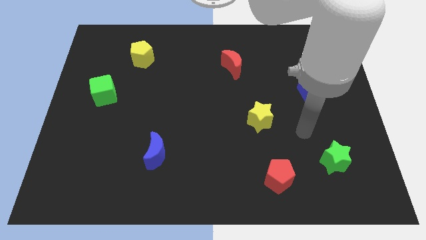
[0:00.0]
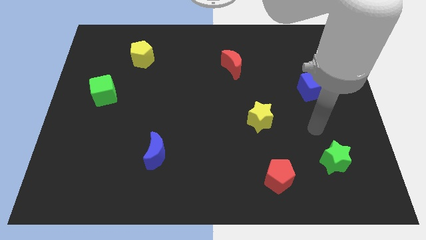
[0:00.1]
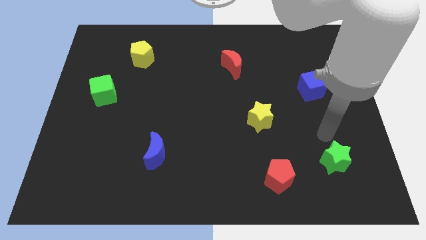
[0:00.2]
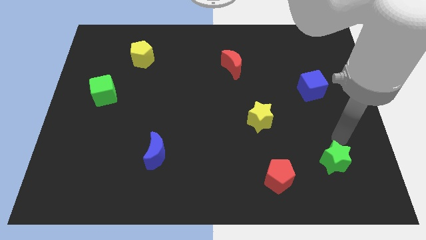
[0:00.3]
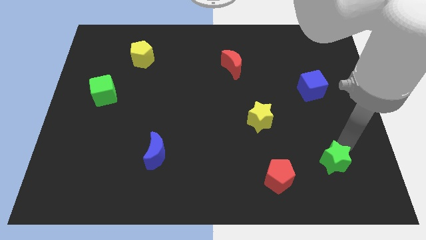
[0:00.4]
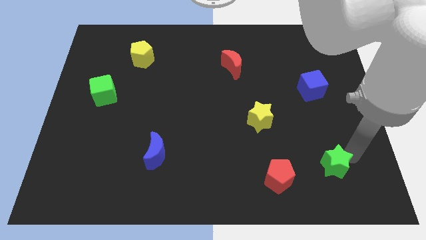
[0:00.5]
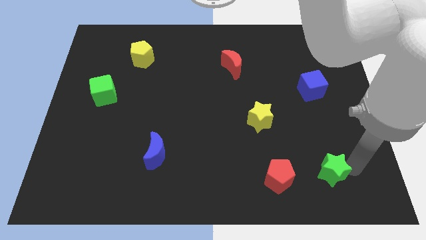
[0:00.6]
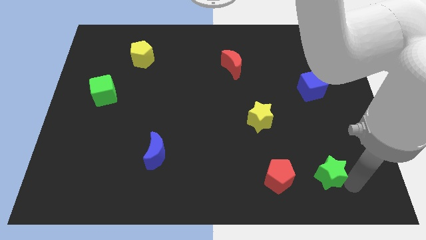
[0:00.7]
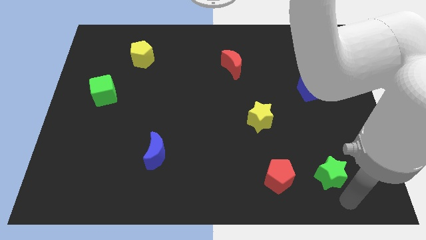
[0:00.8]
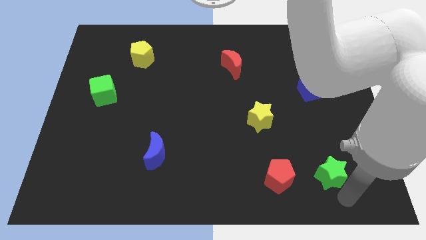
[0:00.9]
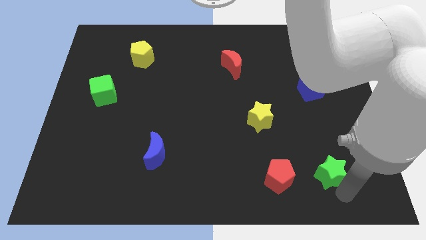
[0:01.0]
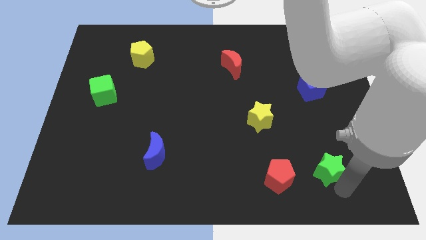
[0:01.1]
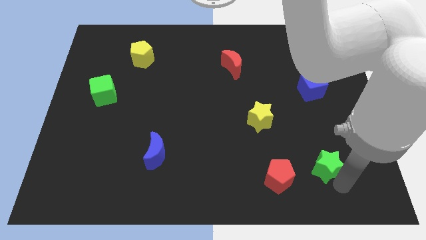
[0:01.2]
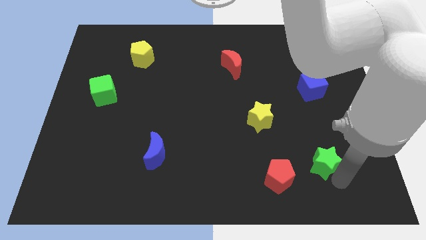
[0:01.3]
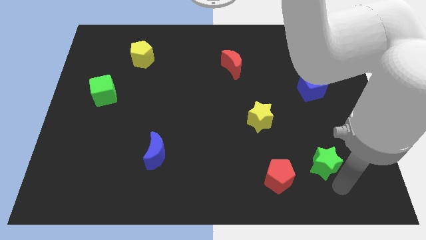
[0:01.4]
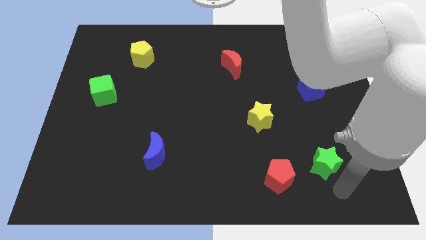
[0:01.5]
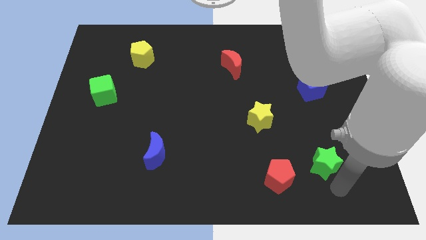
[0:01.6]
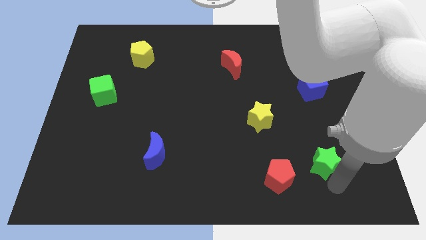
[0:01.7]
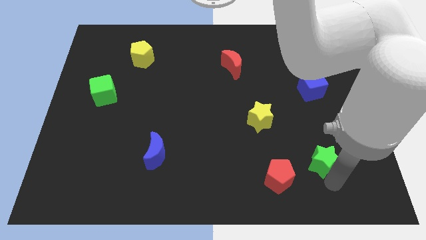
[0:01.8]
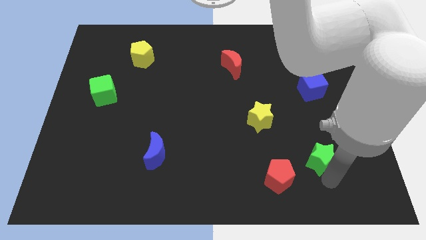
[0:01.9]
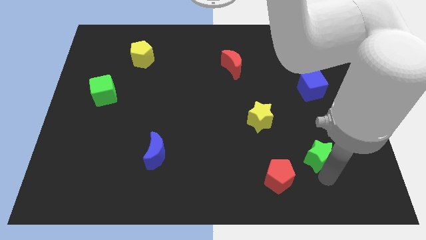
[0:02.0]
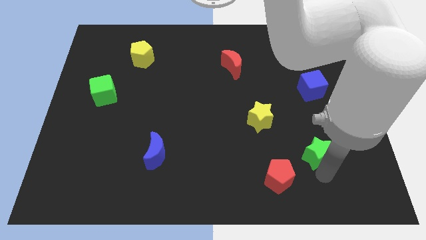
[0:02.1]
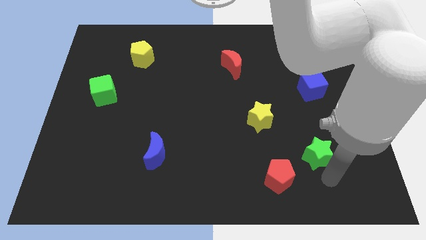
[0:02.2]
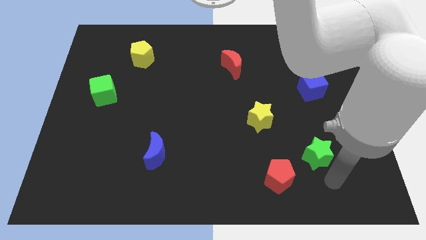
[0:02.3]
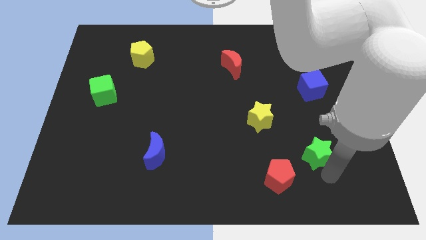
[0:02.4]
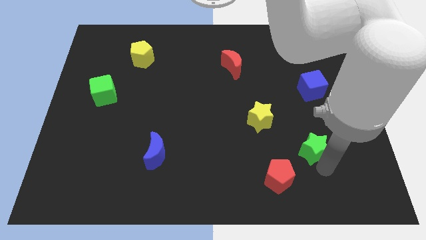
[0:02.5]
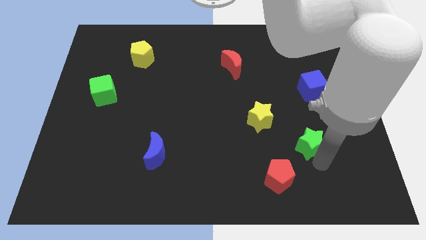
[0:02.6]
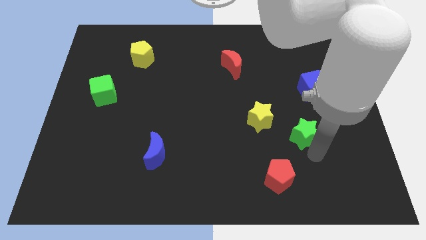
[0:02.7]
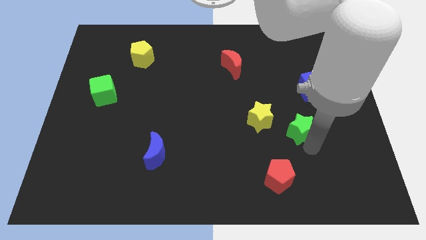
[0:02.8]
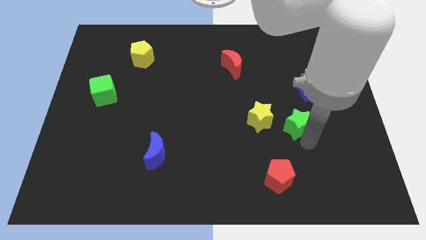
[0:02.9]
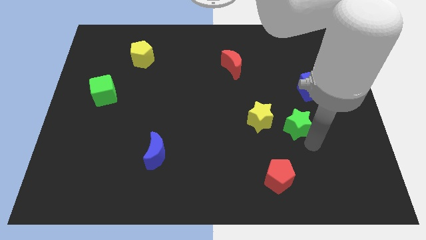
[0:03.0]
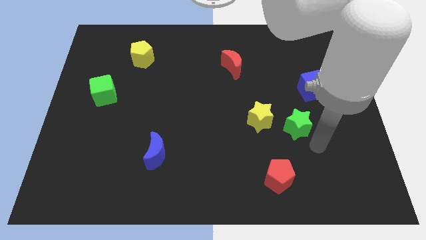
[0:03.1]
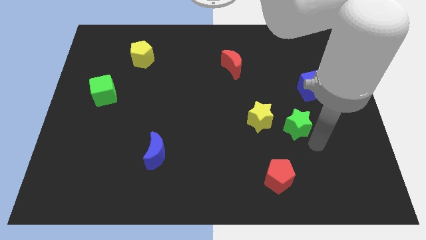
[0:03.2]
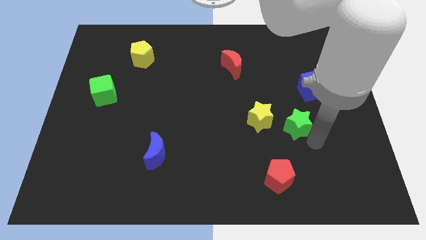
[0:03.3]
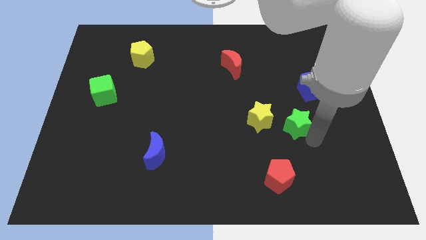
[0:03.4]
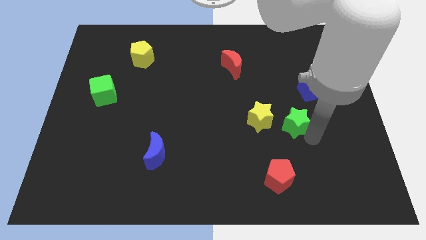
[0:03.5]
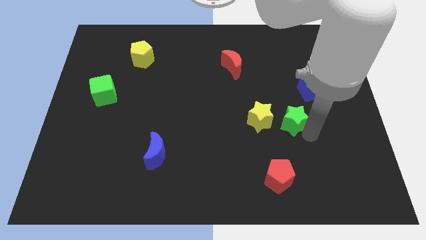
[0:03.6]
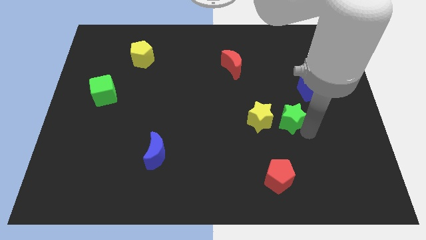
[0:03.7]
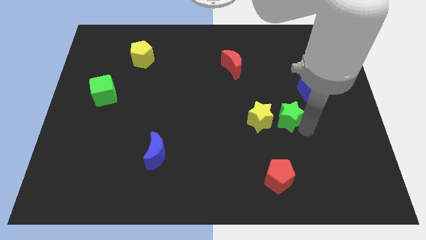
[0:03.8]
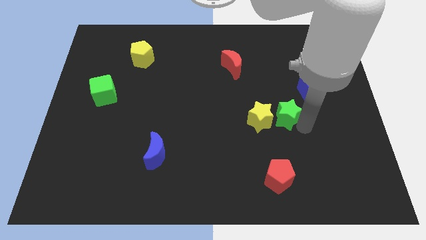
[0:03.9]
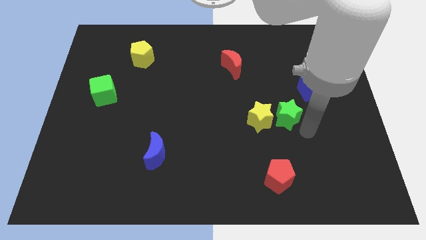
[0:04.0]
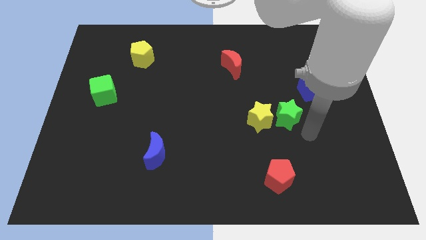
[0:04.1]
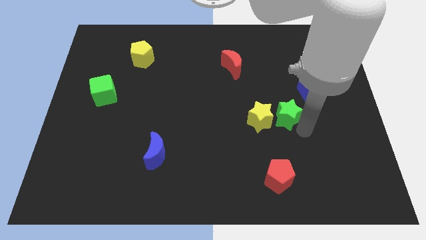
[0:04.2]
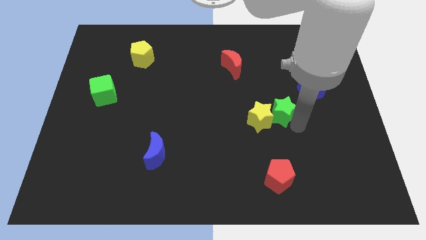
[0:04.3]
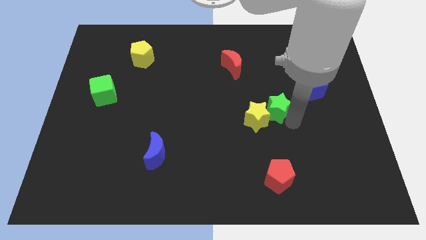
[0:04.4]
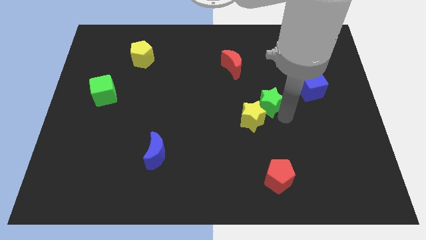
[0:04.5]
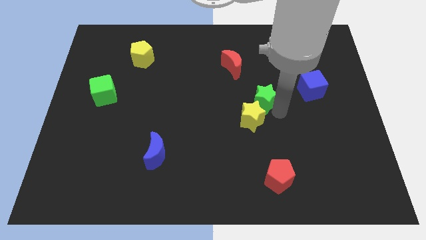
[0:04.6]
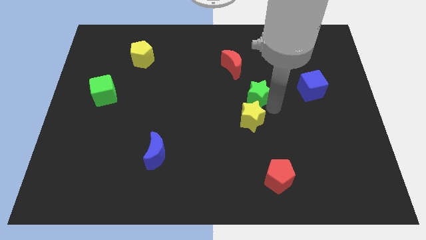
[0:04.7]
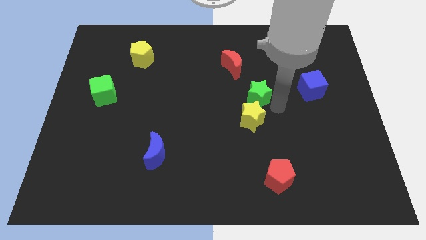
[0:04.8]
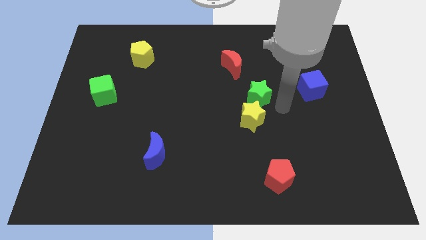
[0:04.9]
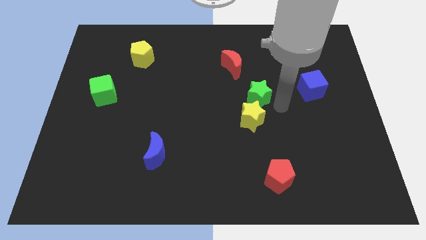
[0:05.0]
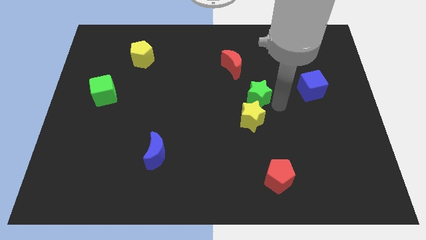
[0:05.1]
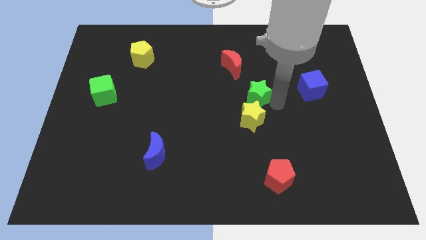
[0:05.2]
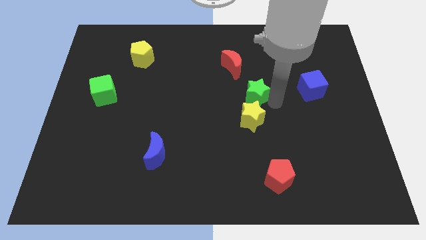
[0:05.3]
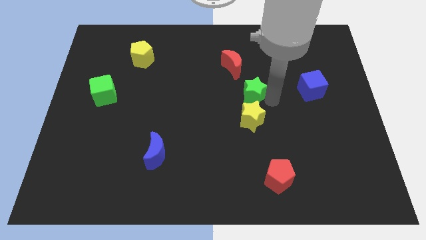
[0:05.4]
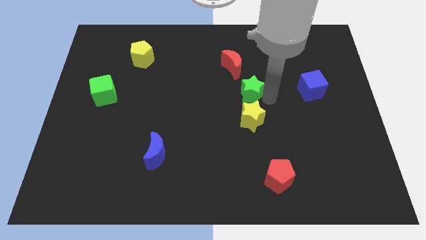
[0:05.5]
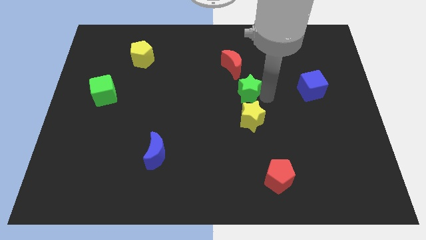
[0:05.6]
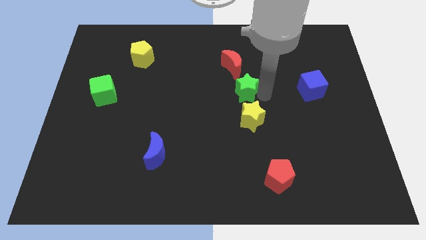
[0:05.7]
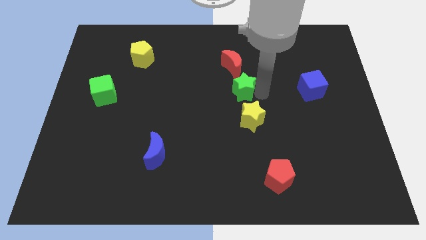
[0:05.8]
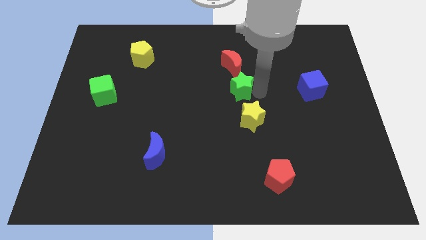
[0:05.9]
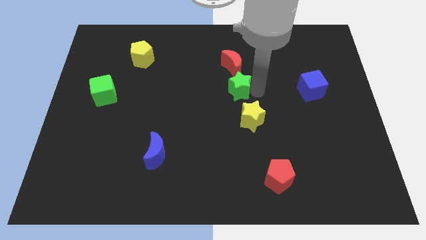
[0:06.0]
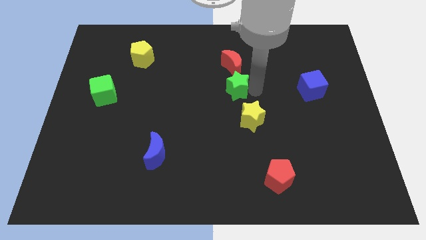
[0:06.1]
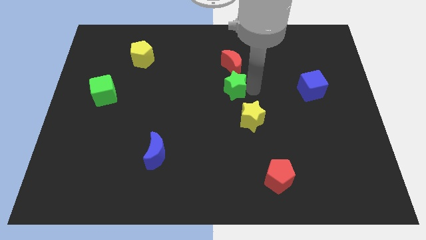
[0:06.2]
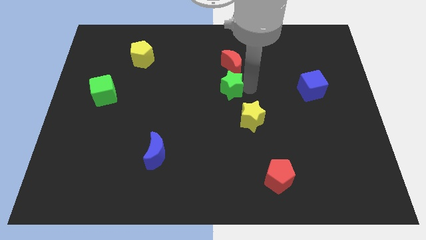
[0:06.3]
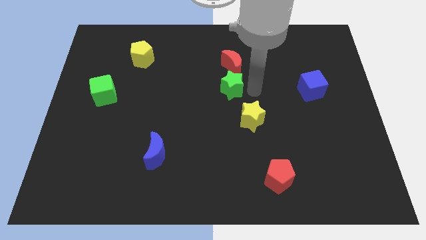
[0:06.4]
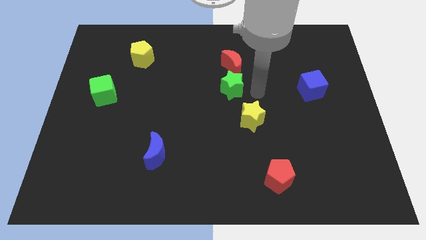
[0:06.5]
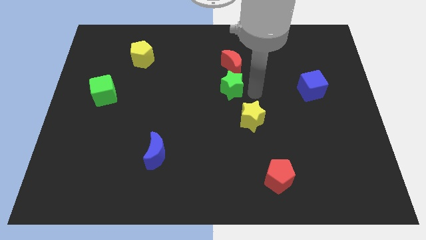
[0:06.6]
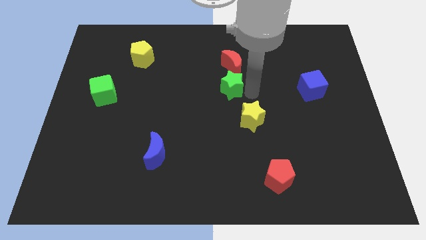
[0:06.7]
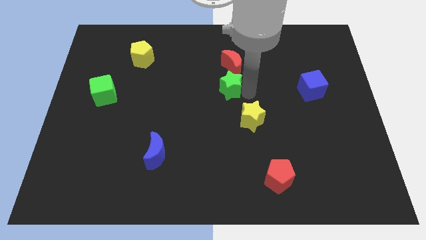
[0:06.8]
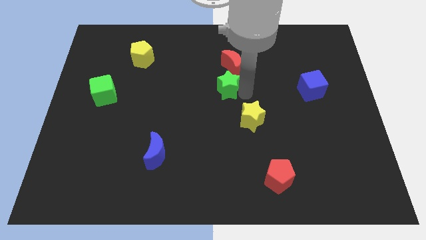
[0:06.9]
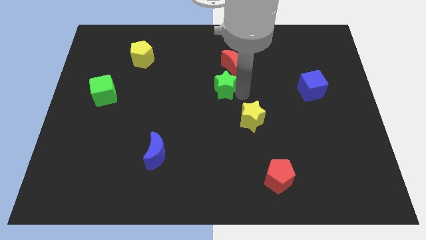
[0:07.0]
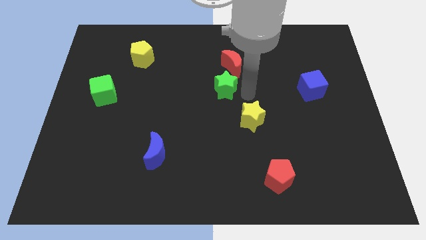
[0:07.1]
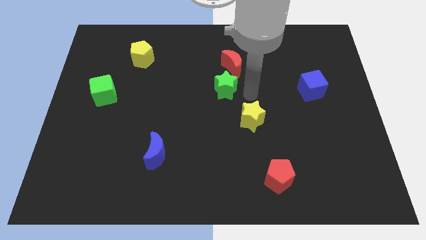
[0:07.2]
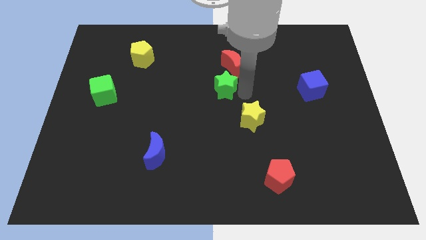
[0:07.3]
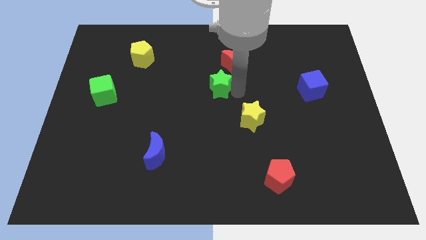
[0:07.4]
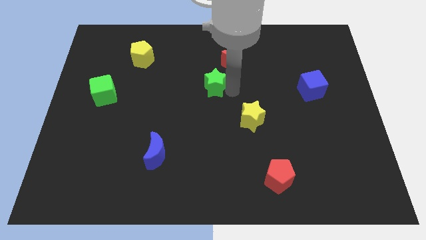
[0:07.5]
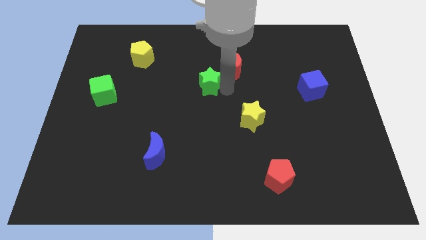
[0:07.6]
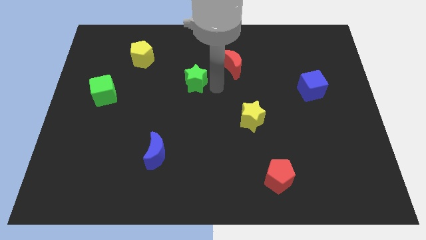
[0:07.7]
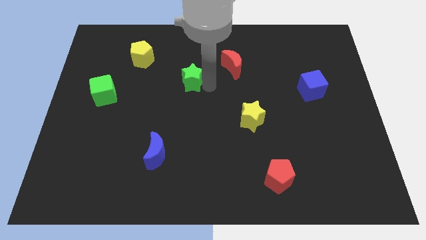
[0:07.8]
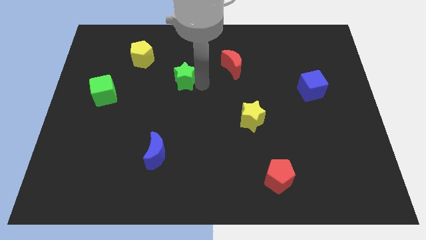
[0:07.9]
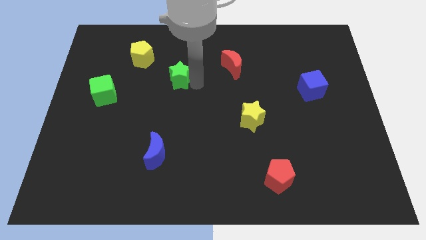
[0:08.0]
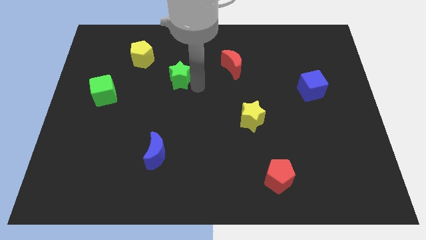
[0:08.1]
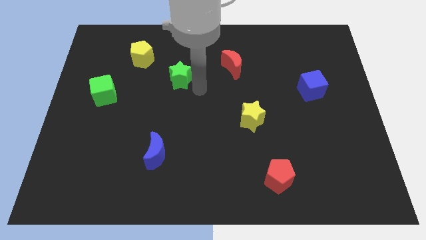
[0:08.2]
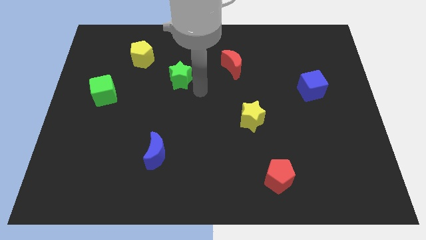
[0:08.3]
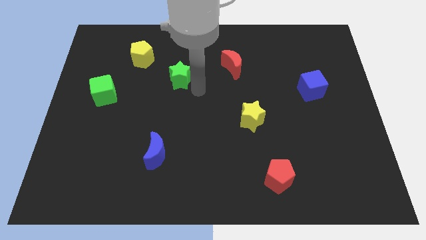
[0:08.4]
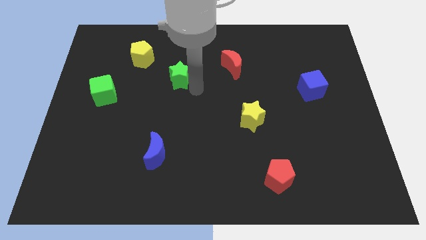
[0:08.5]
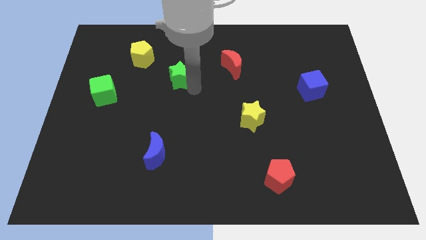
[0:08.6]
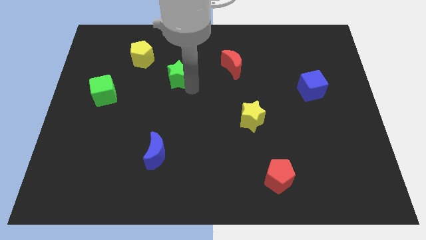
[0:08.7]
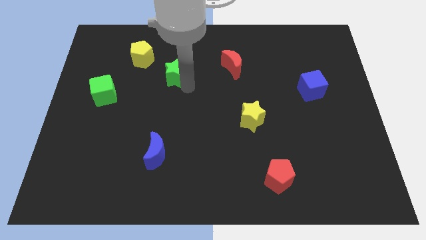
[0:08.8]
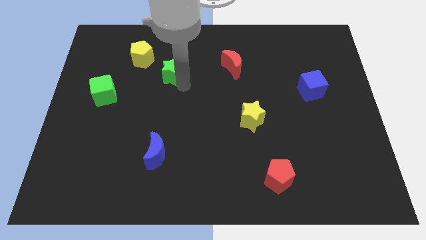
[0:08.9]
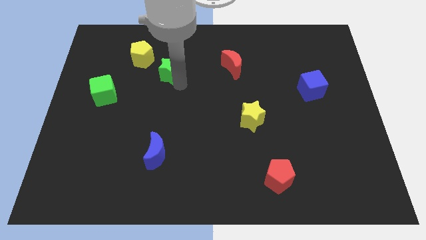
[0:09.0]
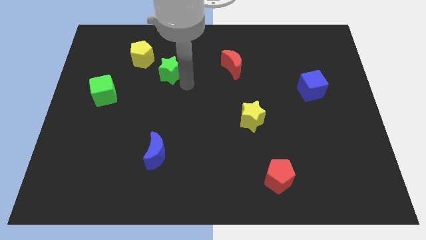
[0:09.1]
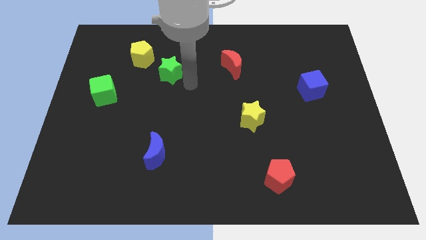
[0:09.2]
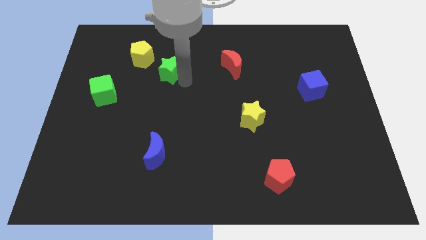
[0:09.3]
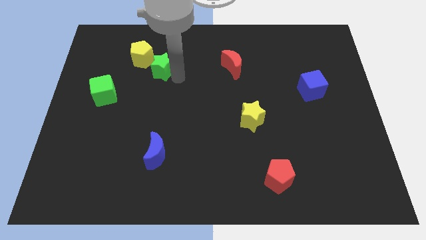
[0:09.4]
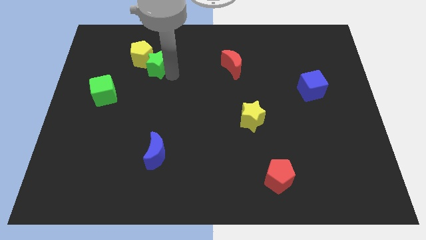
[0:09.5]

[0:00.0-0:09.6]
put the green star to the yellow pentagon
